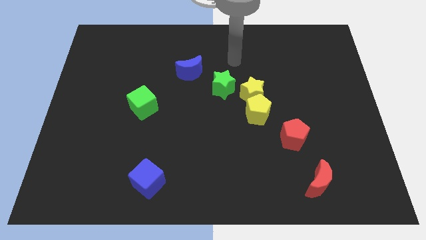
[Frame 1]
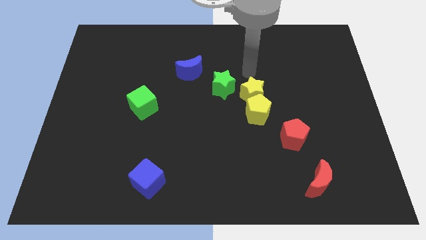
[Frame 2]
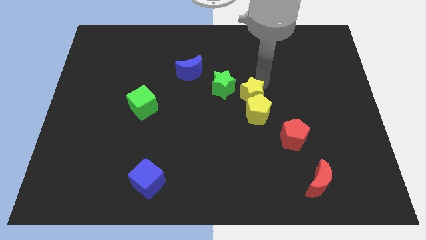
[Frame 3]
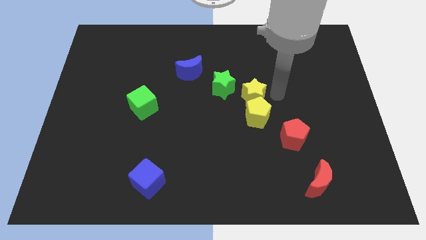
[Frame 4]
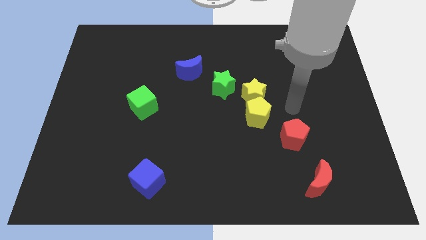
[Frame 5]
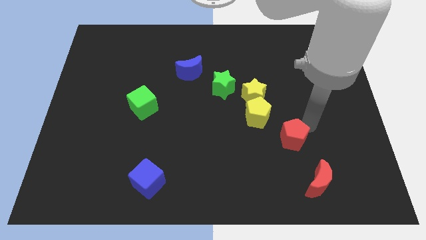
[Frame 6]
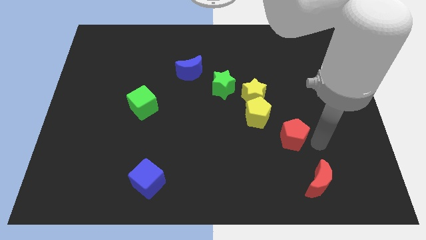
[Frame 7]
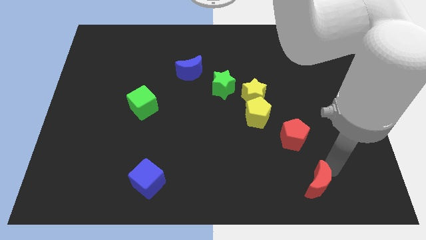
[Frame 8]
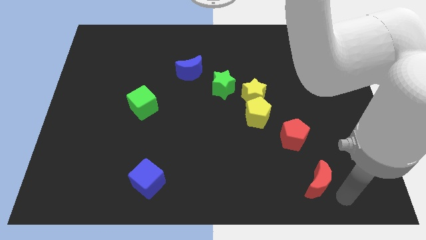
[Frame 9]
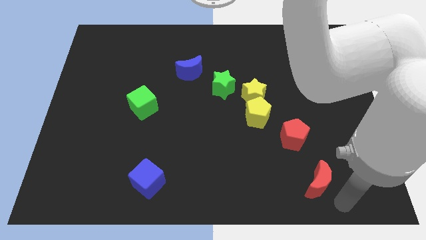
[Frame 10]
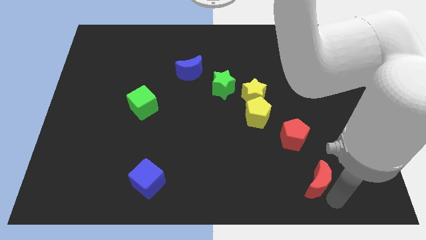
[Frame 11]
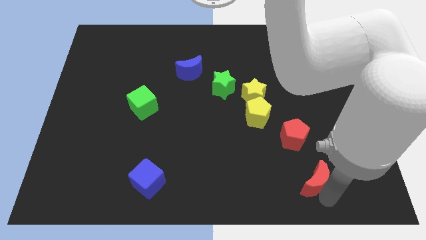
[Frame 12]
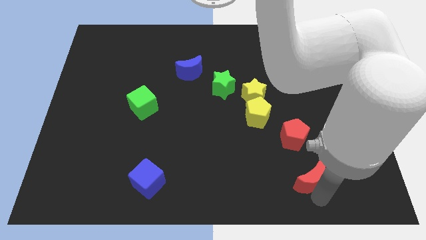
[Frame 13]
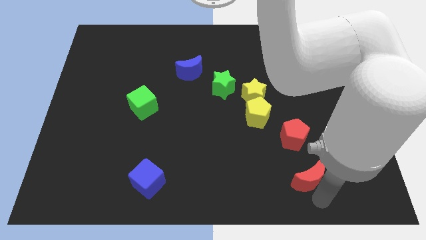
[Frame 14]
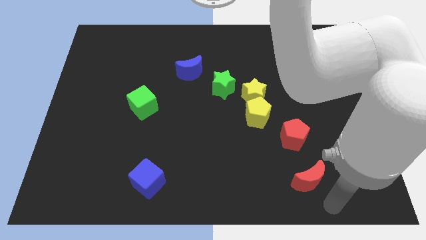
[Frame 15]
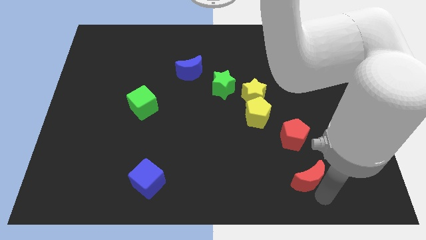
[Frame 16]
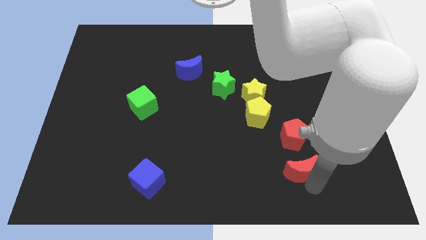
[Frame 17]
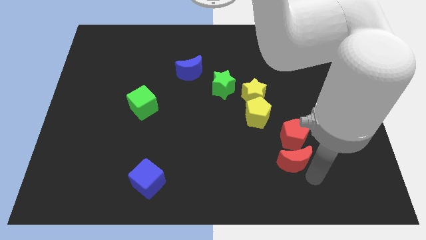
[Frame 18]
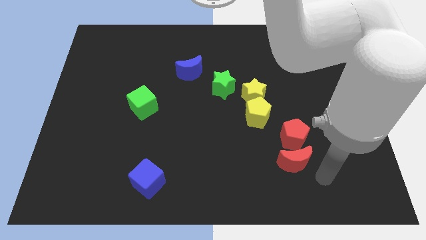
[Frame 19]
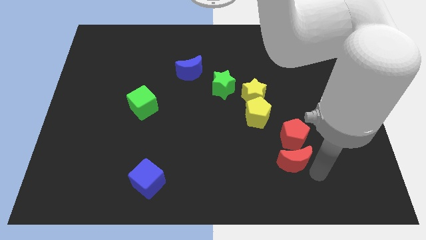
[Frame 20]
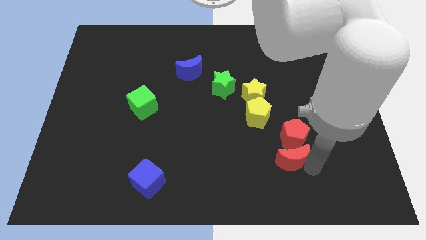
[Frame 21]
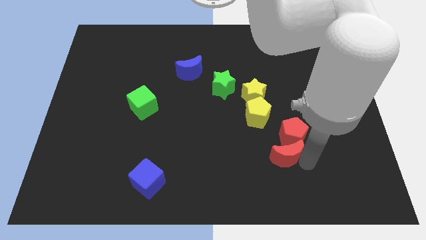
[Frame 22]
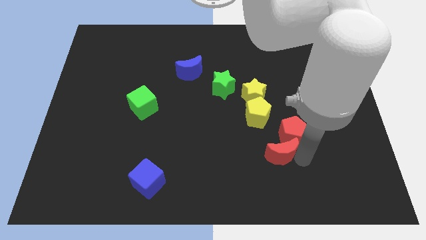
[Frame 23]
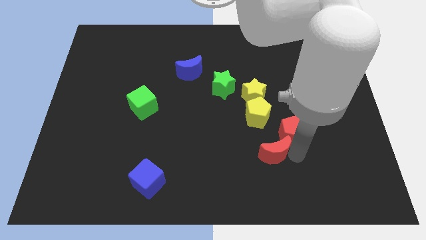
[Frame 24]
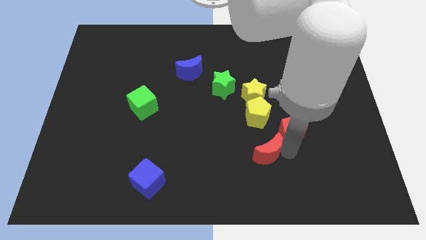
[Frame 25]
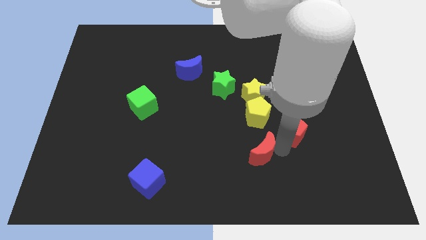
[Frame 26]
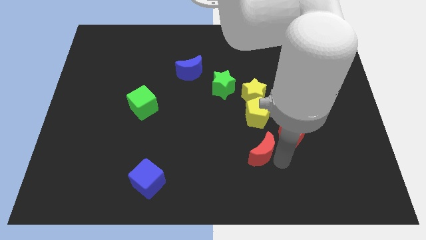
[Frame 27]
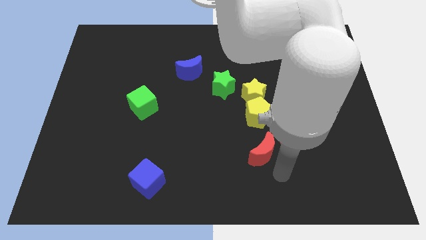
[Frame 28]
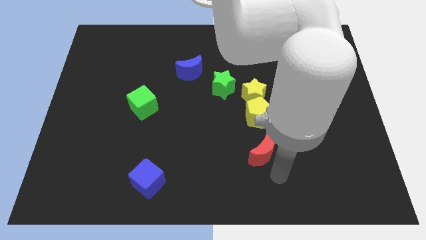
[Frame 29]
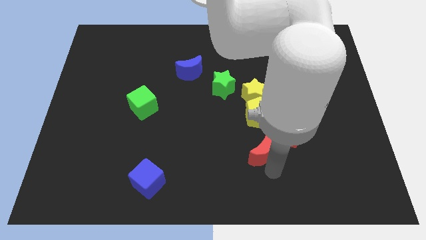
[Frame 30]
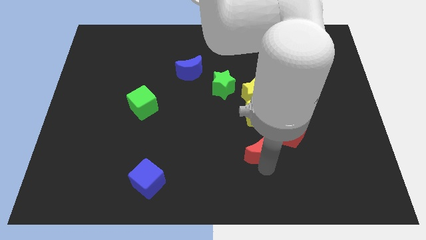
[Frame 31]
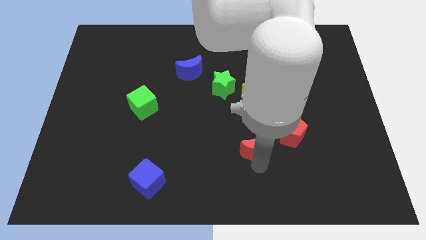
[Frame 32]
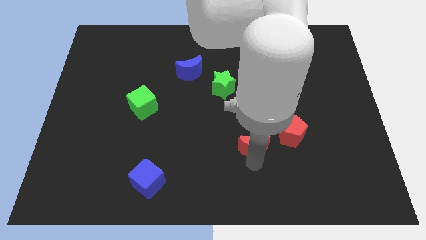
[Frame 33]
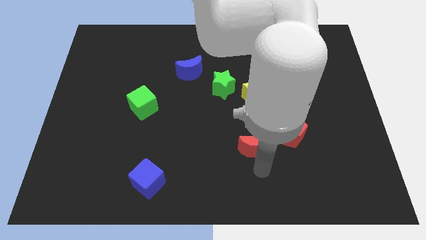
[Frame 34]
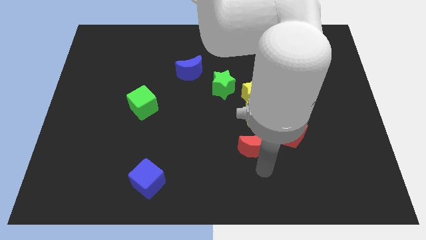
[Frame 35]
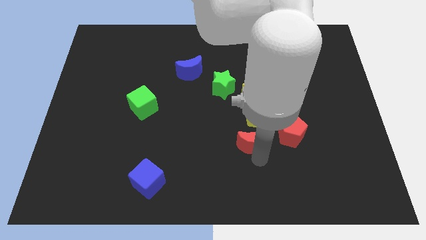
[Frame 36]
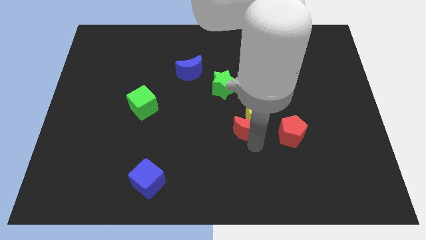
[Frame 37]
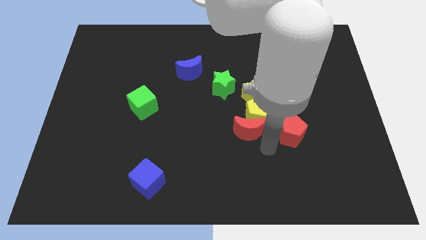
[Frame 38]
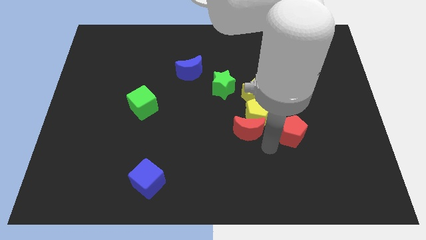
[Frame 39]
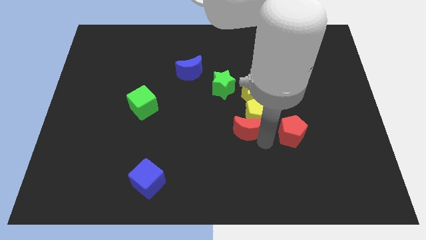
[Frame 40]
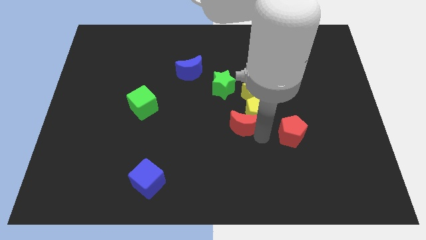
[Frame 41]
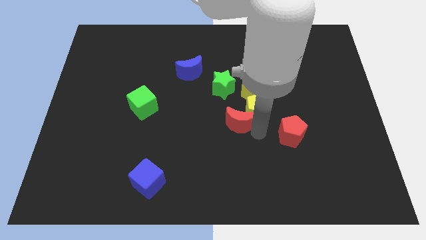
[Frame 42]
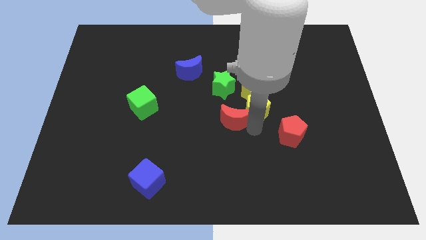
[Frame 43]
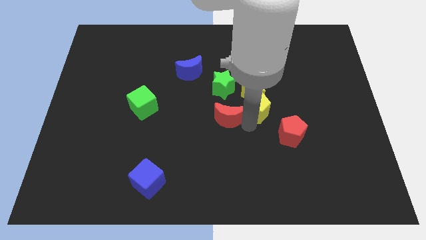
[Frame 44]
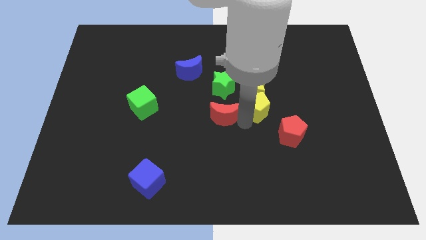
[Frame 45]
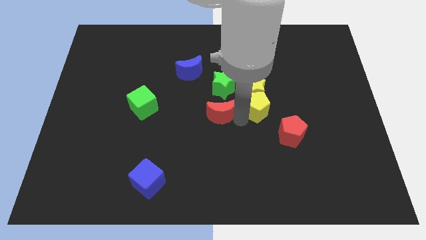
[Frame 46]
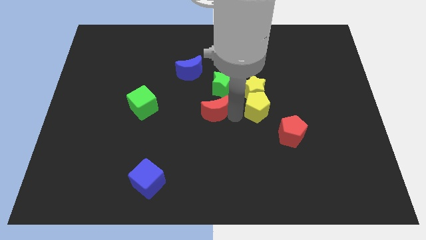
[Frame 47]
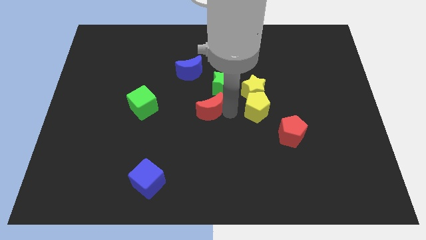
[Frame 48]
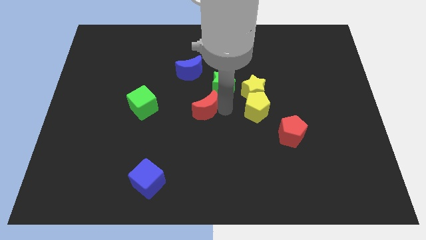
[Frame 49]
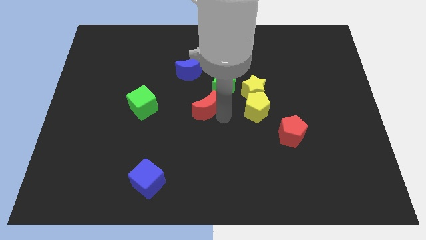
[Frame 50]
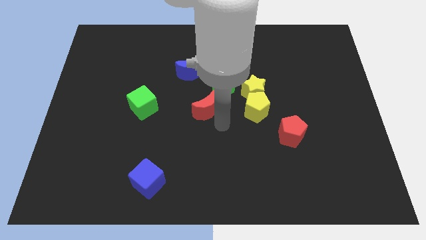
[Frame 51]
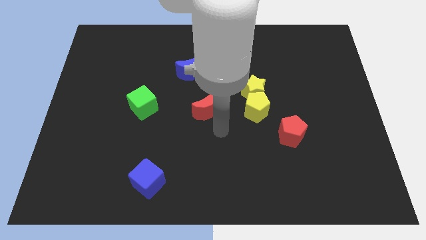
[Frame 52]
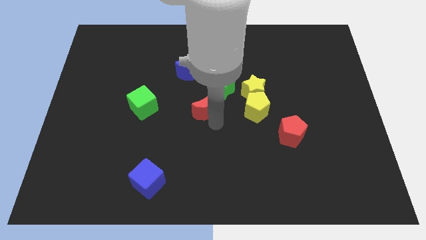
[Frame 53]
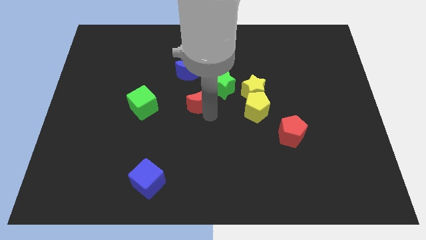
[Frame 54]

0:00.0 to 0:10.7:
slide the red moon just left of the green star
